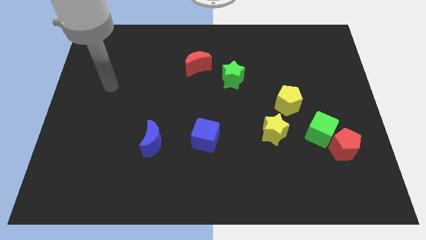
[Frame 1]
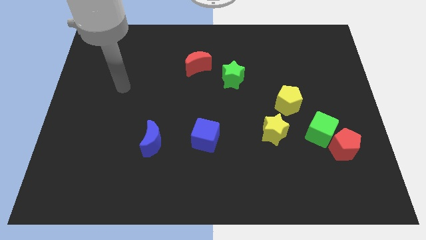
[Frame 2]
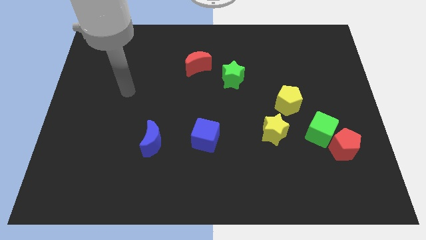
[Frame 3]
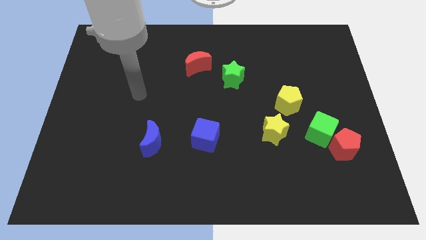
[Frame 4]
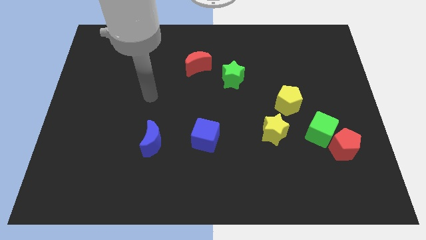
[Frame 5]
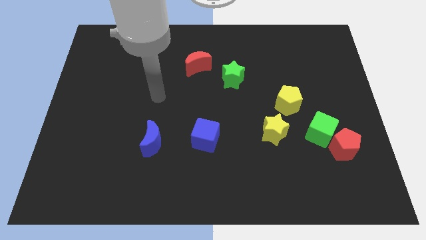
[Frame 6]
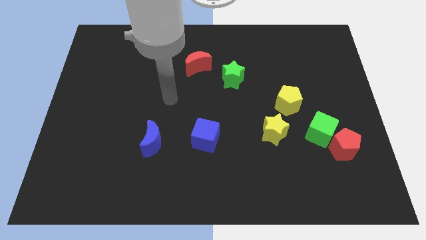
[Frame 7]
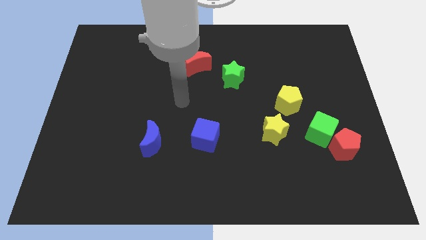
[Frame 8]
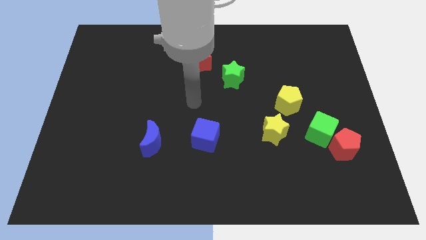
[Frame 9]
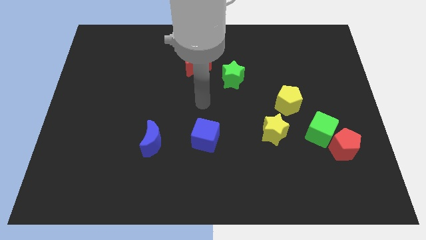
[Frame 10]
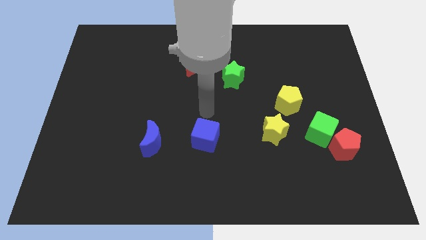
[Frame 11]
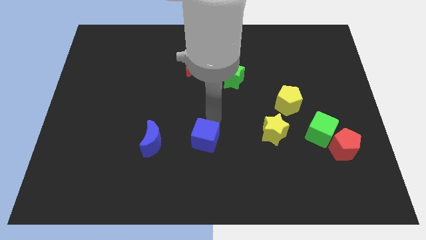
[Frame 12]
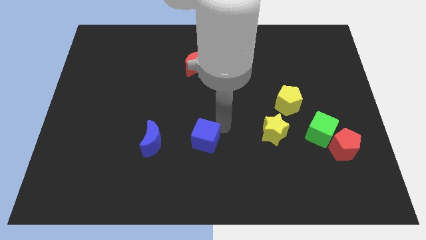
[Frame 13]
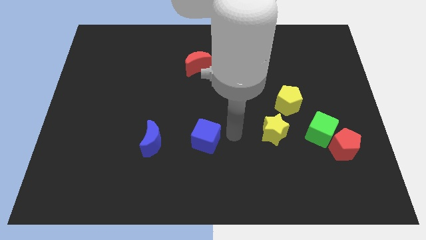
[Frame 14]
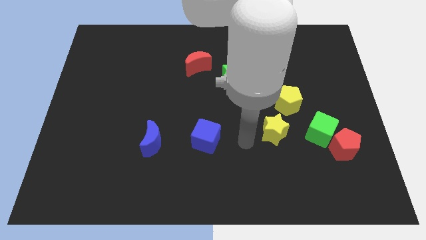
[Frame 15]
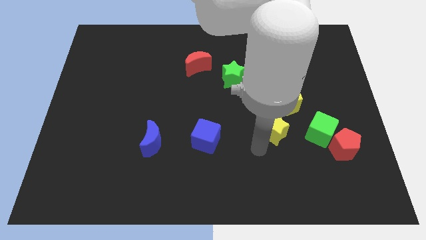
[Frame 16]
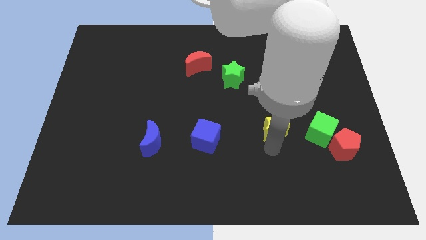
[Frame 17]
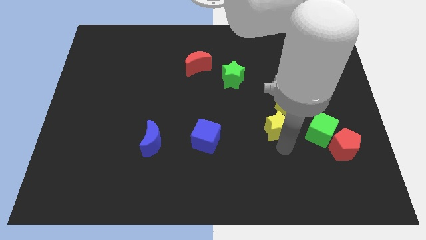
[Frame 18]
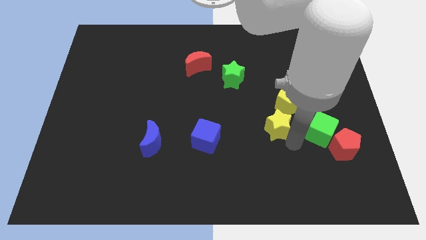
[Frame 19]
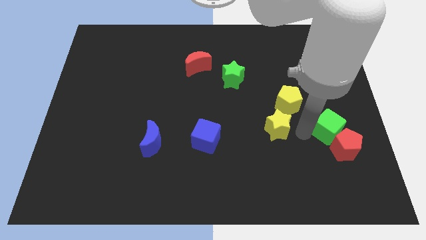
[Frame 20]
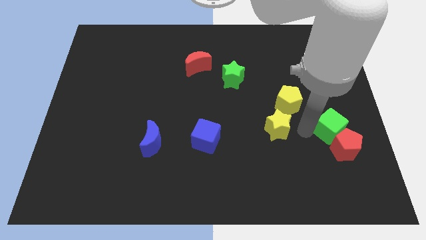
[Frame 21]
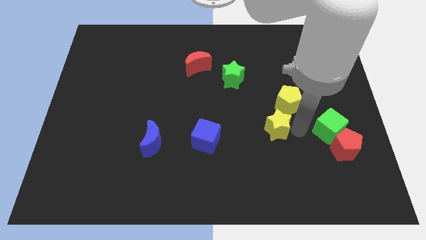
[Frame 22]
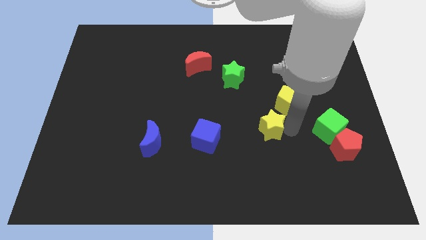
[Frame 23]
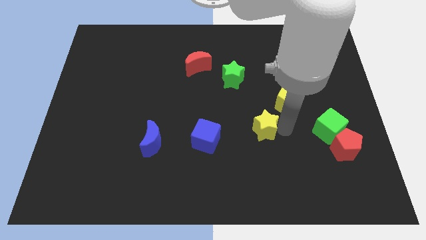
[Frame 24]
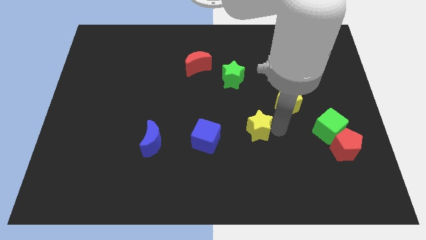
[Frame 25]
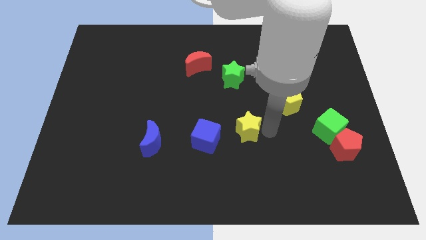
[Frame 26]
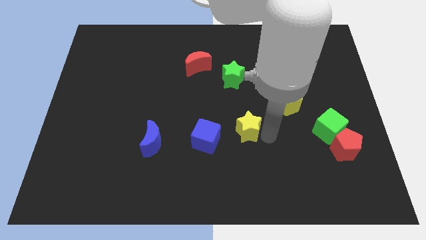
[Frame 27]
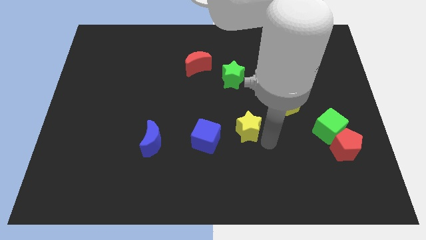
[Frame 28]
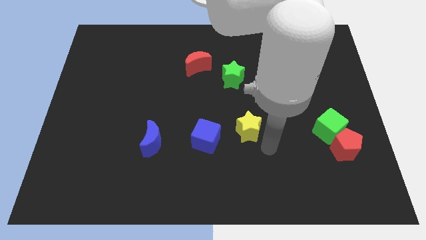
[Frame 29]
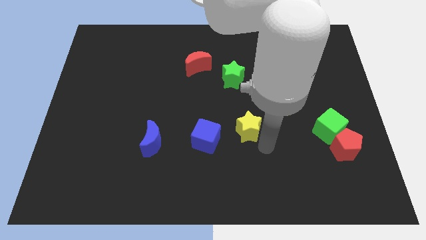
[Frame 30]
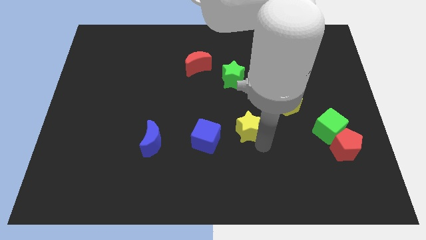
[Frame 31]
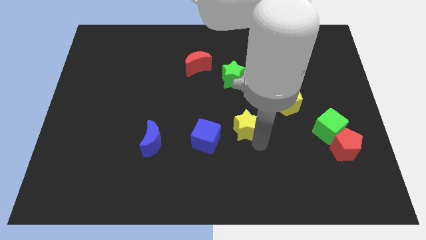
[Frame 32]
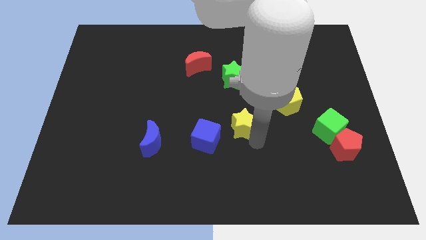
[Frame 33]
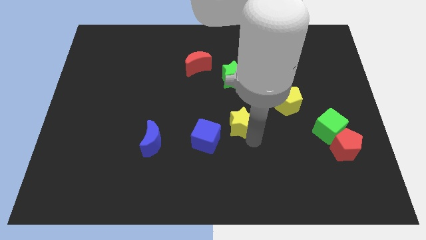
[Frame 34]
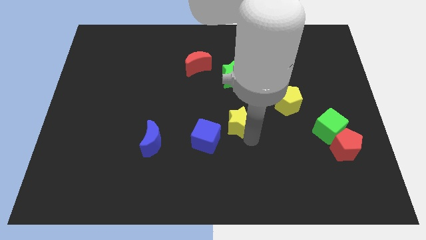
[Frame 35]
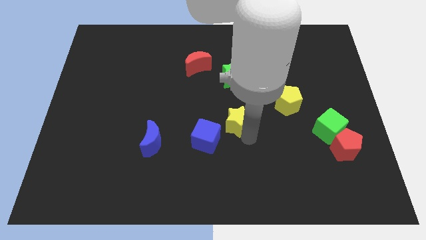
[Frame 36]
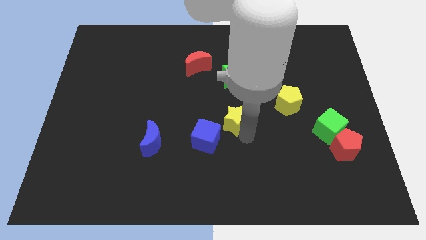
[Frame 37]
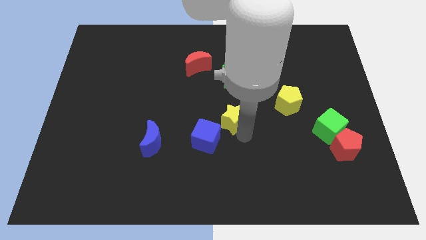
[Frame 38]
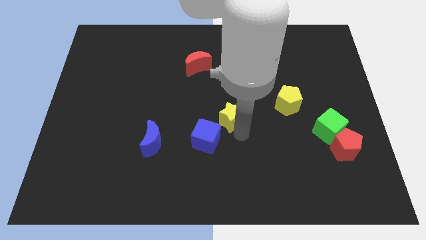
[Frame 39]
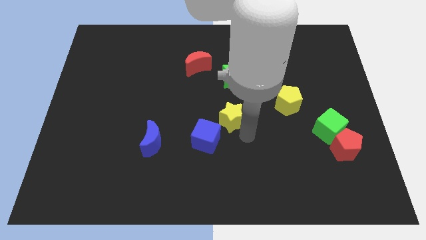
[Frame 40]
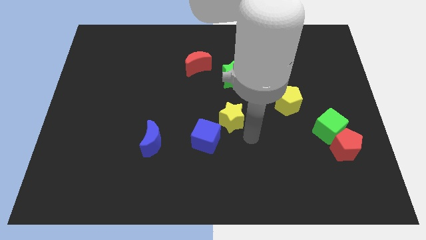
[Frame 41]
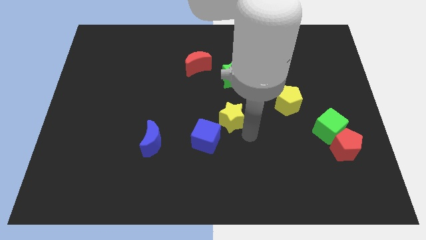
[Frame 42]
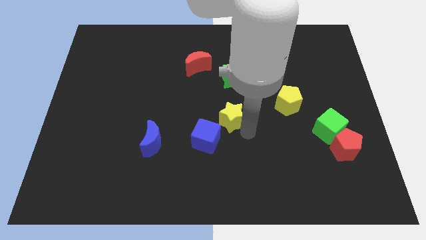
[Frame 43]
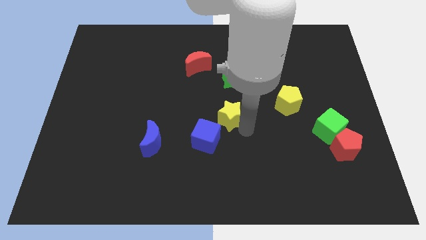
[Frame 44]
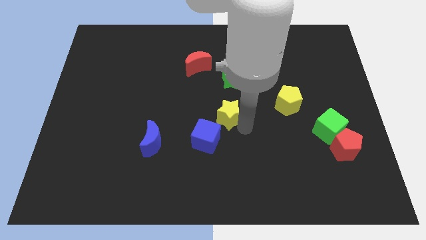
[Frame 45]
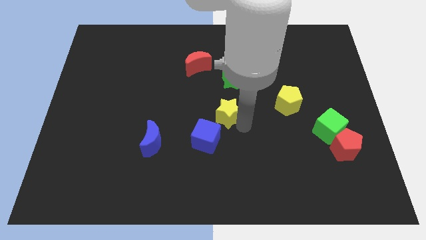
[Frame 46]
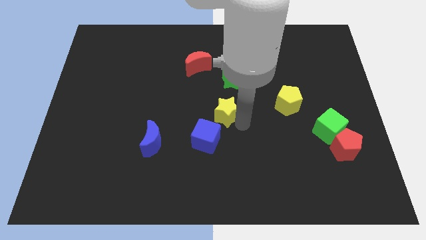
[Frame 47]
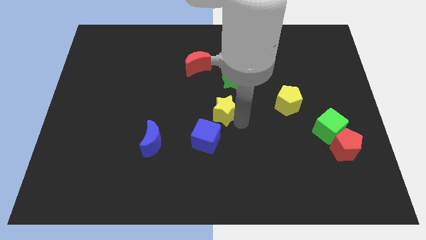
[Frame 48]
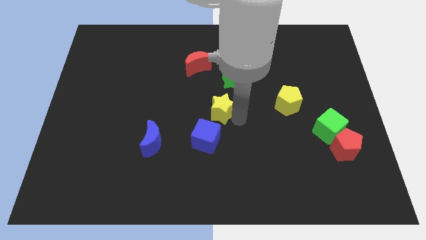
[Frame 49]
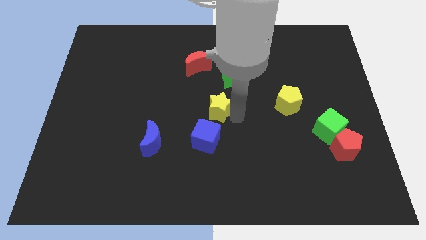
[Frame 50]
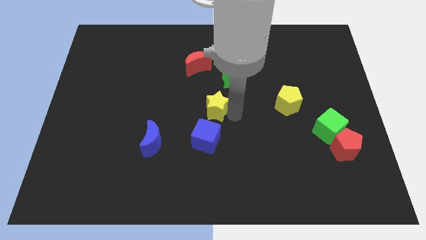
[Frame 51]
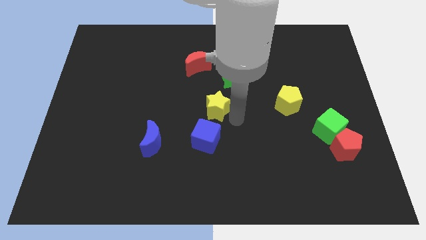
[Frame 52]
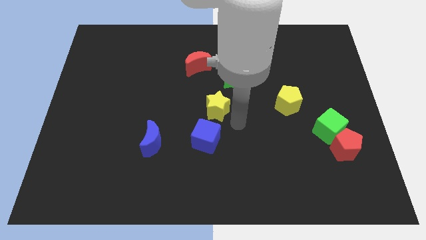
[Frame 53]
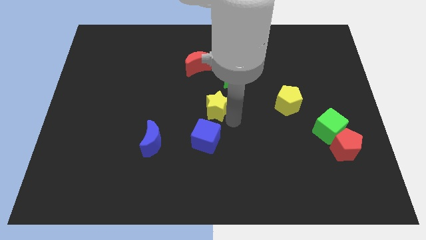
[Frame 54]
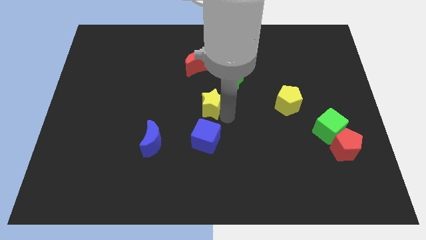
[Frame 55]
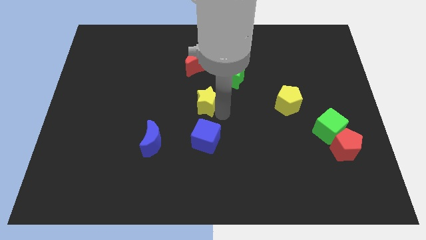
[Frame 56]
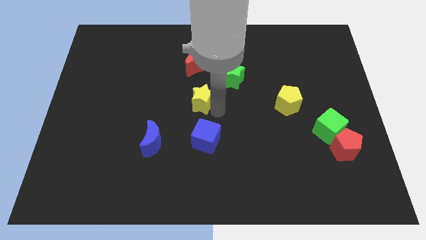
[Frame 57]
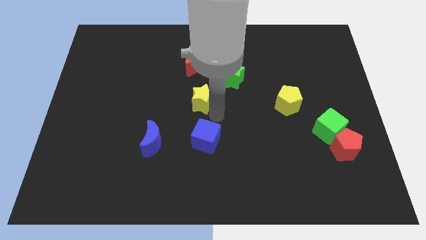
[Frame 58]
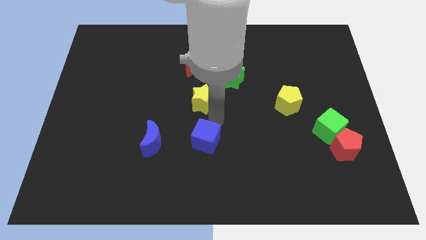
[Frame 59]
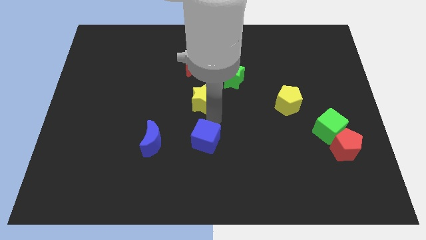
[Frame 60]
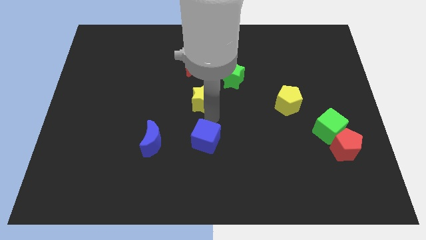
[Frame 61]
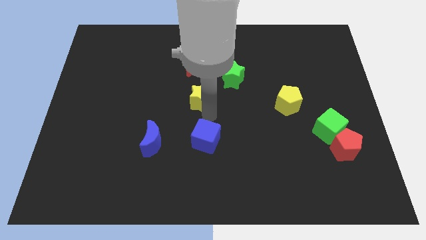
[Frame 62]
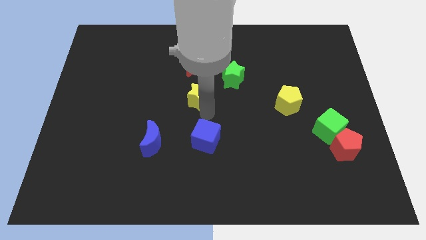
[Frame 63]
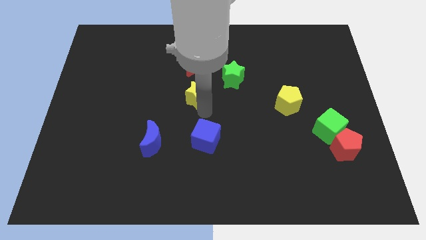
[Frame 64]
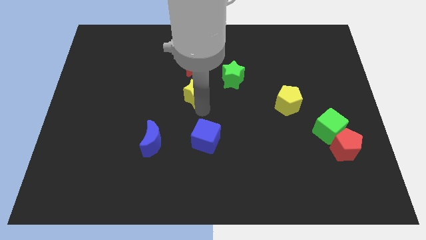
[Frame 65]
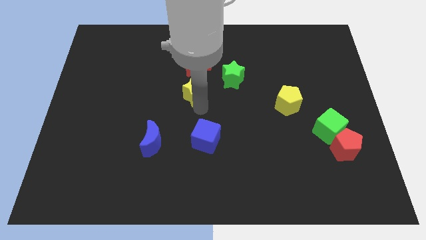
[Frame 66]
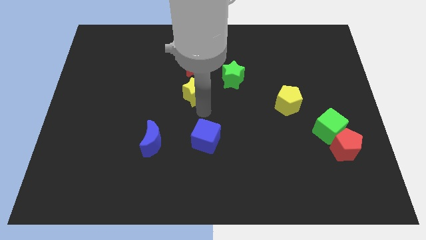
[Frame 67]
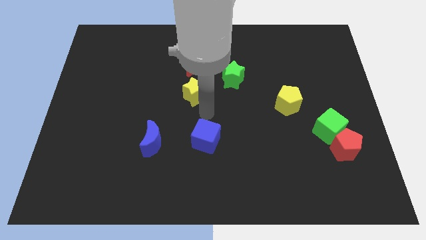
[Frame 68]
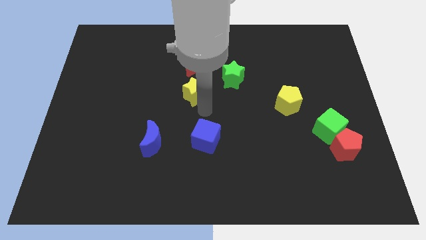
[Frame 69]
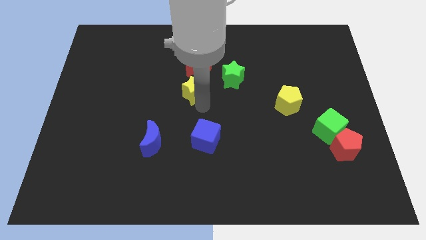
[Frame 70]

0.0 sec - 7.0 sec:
slide the yellow star upwards and to the left diagonally

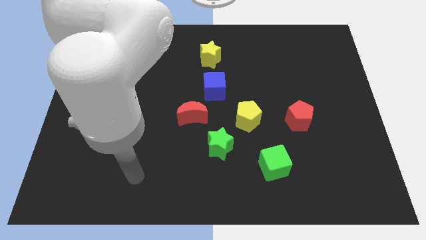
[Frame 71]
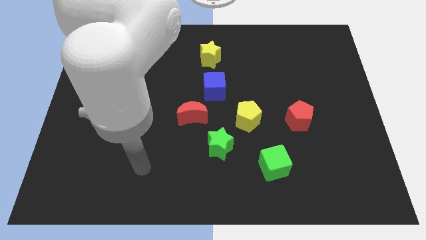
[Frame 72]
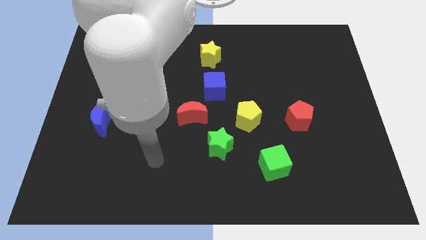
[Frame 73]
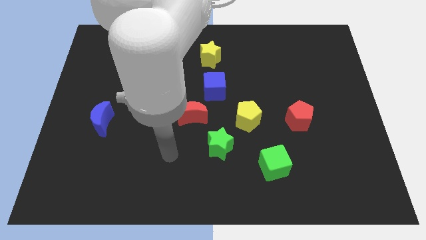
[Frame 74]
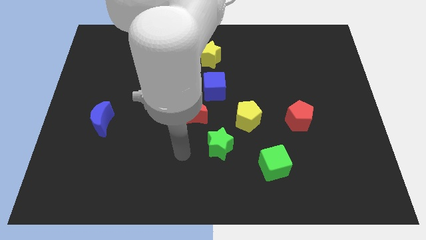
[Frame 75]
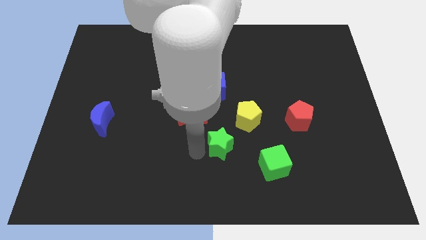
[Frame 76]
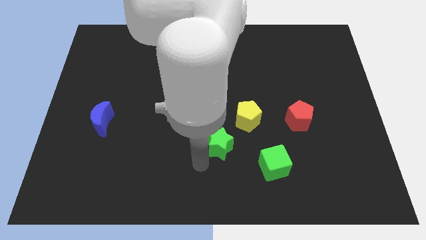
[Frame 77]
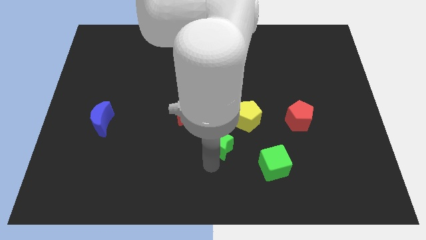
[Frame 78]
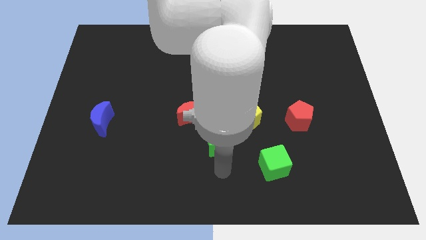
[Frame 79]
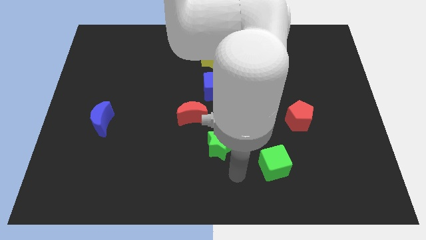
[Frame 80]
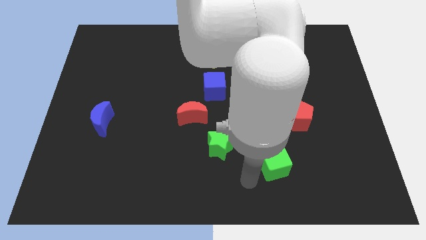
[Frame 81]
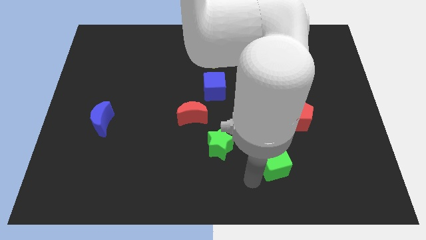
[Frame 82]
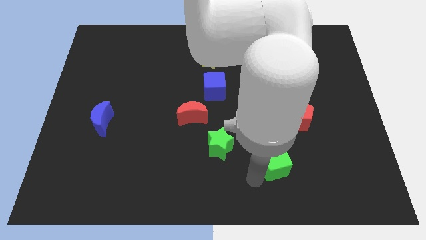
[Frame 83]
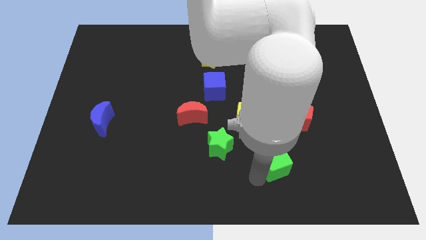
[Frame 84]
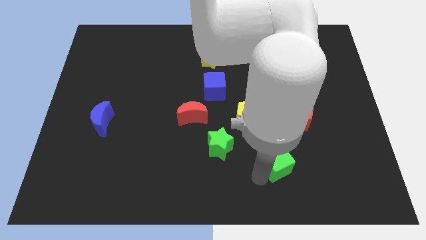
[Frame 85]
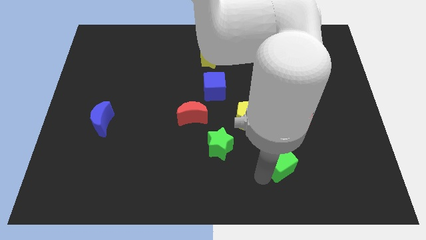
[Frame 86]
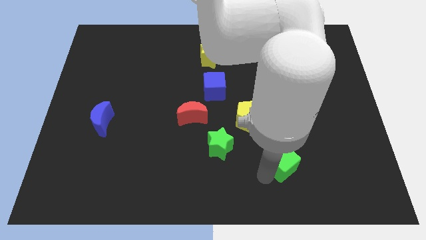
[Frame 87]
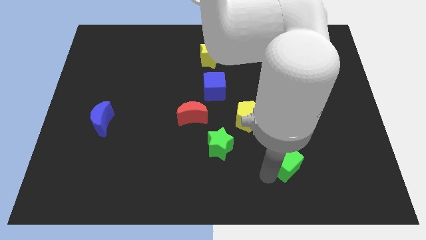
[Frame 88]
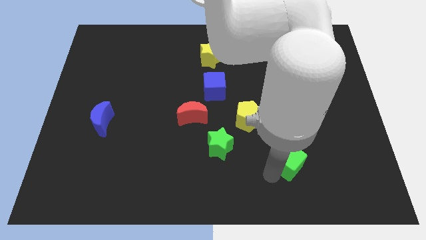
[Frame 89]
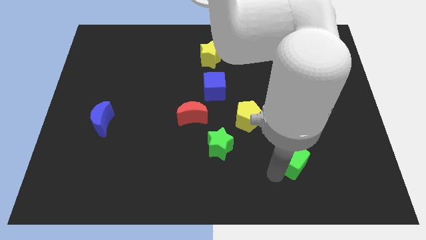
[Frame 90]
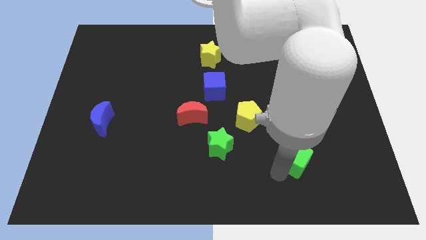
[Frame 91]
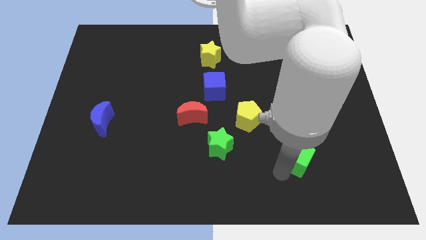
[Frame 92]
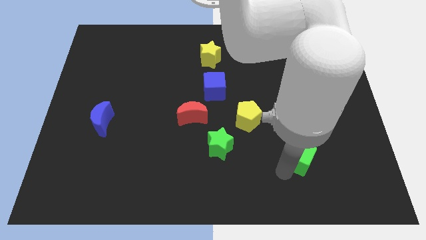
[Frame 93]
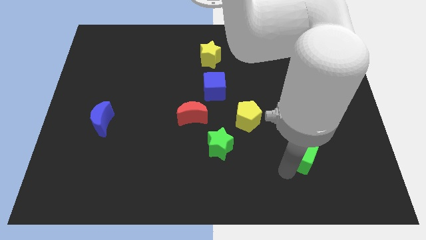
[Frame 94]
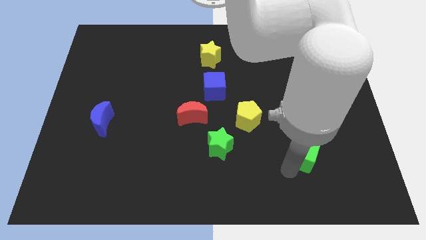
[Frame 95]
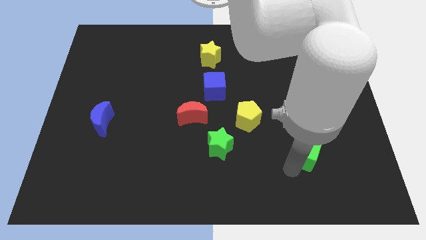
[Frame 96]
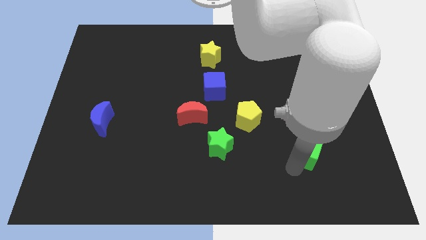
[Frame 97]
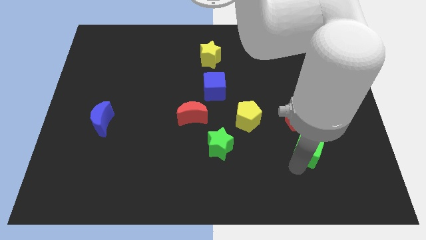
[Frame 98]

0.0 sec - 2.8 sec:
slightly move the green cube up and then right
